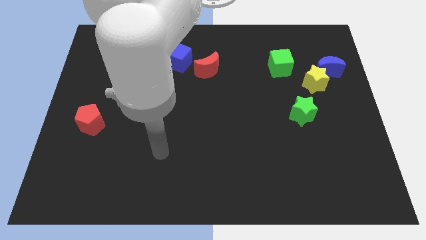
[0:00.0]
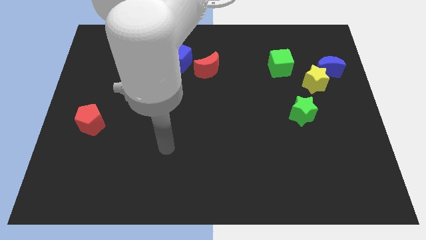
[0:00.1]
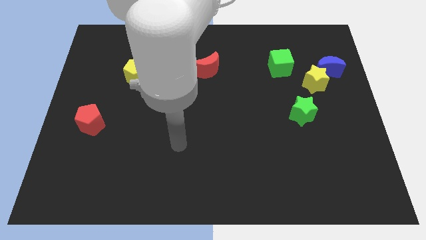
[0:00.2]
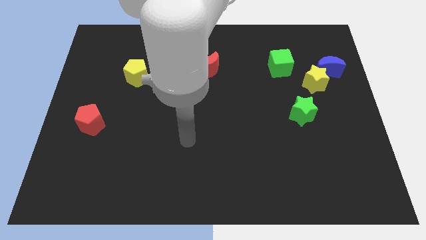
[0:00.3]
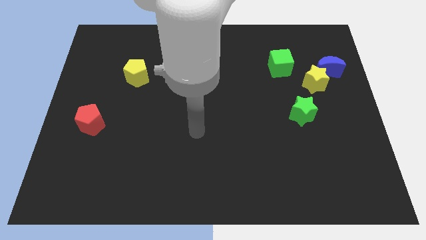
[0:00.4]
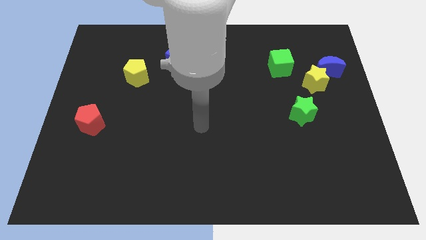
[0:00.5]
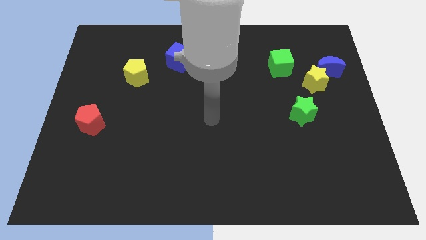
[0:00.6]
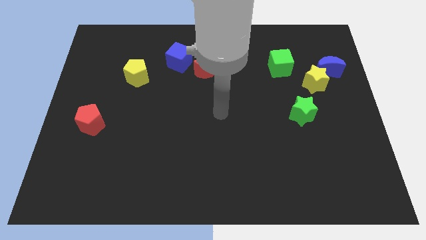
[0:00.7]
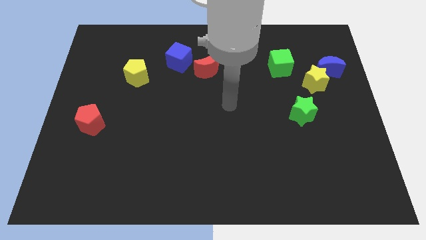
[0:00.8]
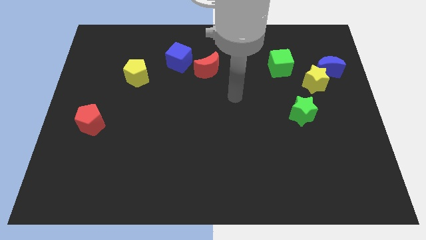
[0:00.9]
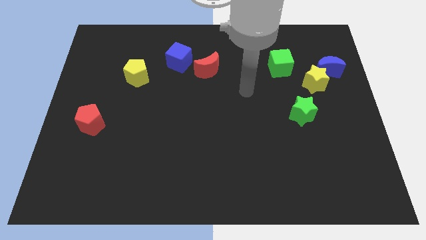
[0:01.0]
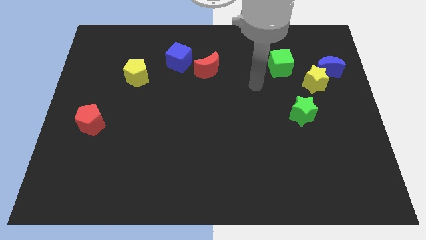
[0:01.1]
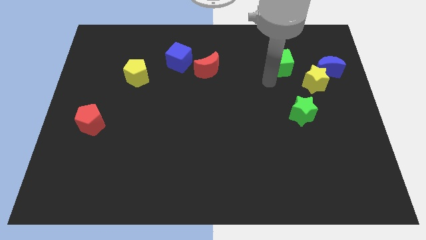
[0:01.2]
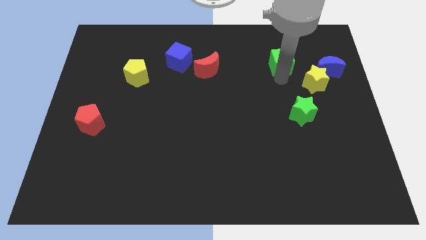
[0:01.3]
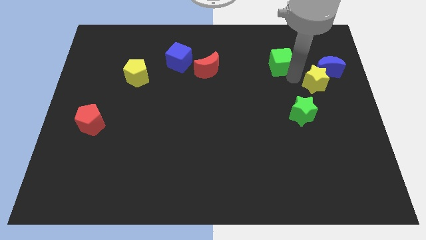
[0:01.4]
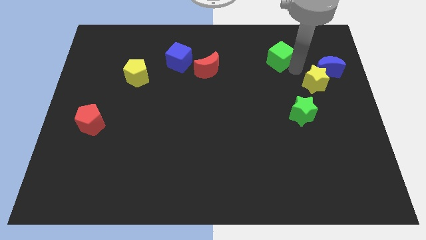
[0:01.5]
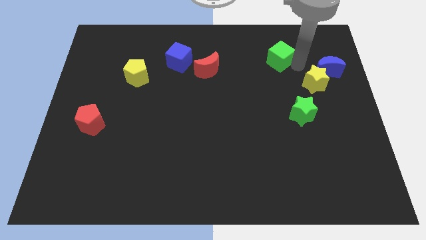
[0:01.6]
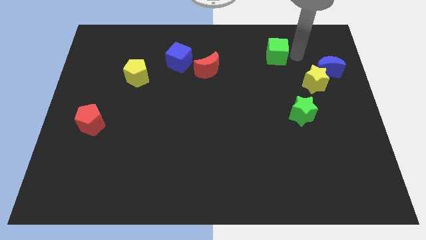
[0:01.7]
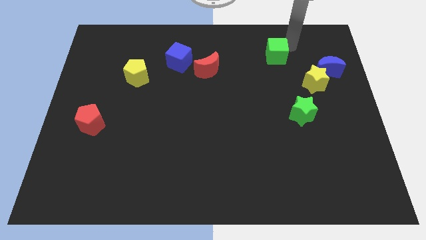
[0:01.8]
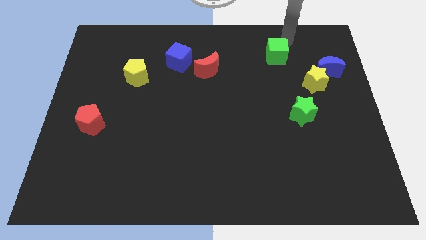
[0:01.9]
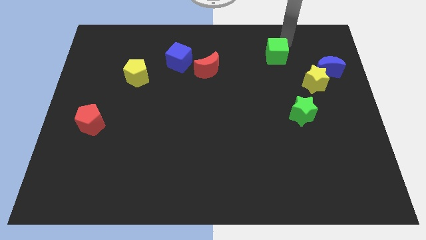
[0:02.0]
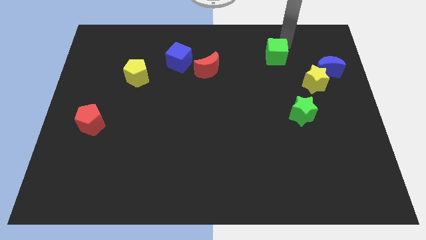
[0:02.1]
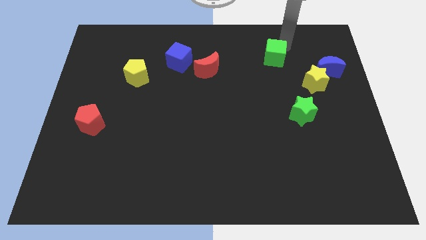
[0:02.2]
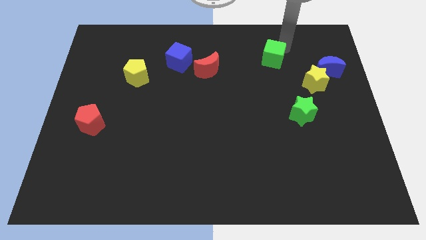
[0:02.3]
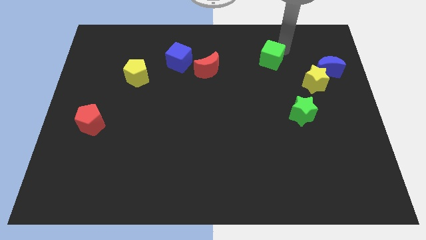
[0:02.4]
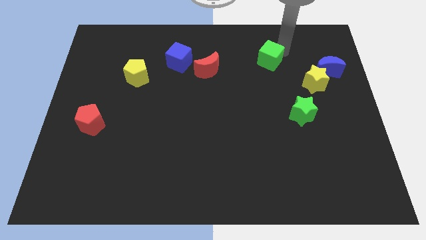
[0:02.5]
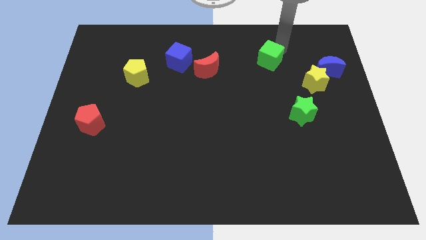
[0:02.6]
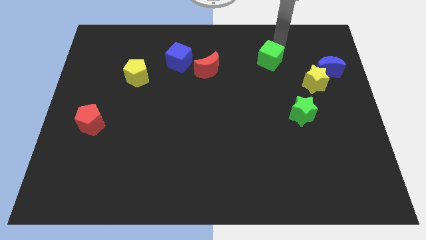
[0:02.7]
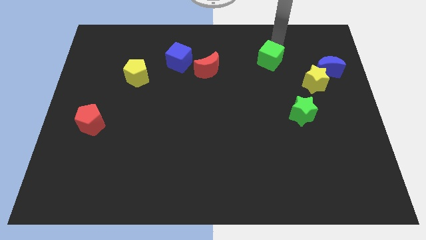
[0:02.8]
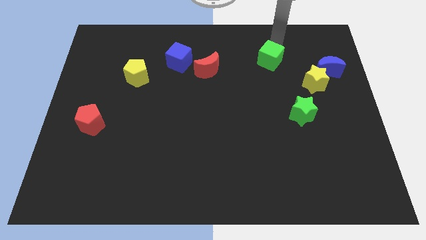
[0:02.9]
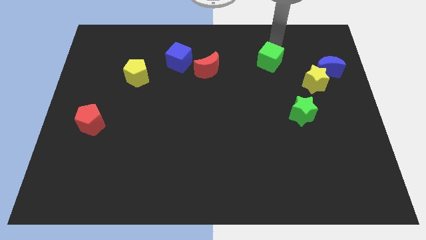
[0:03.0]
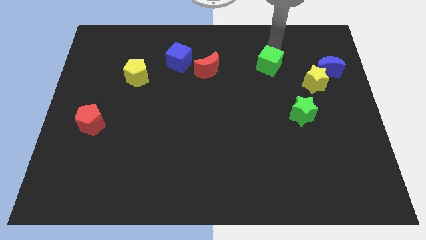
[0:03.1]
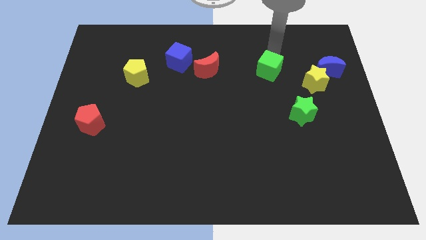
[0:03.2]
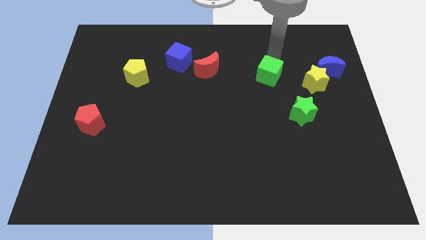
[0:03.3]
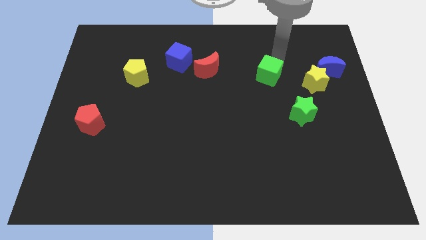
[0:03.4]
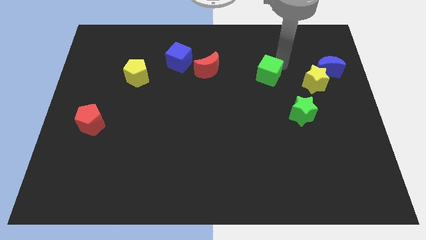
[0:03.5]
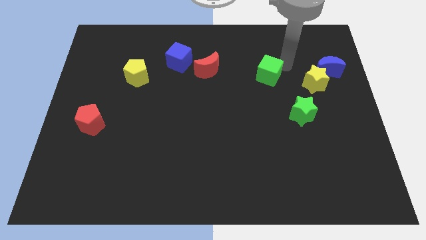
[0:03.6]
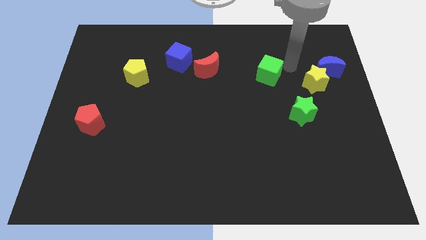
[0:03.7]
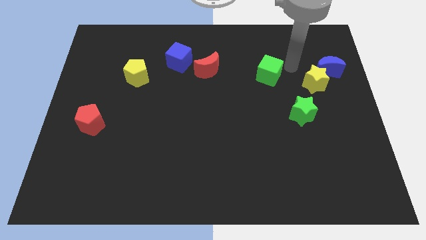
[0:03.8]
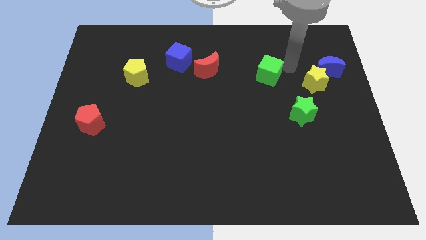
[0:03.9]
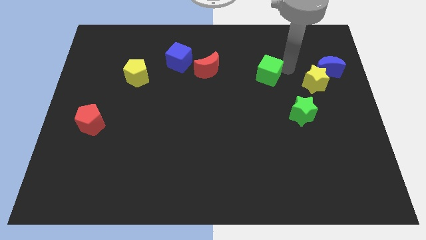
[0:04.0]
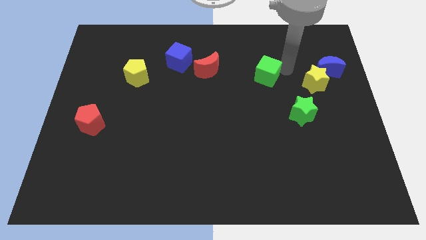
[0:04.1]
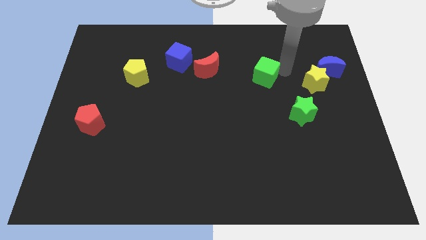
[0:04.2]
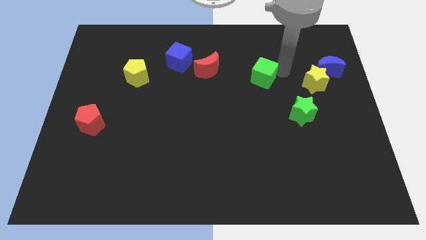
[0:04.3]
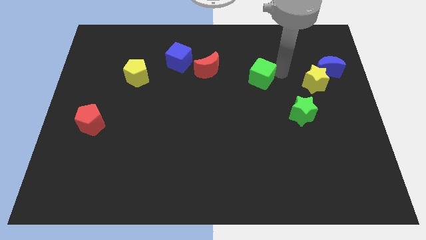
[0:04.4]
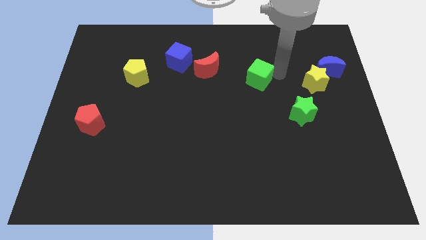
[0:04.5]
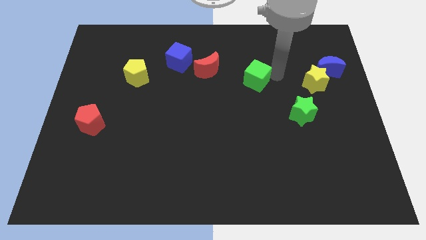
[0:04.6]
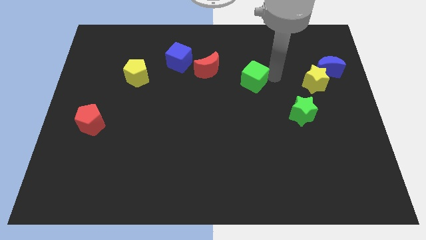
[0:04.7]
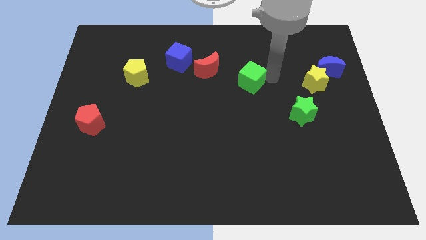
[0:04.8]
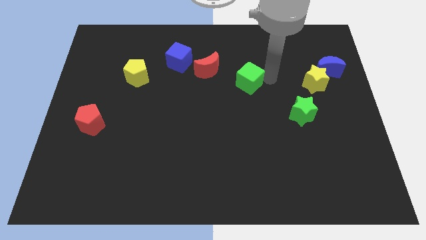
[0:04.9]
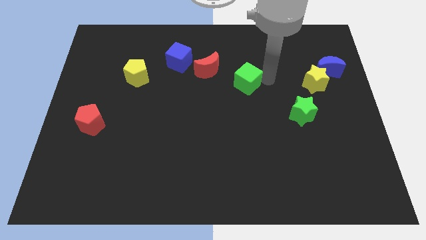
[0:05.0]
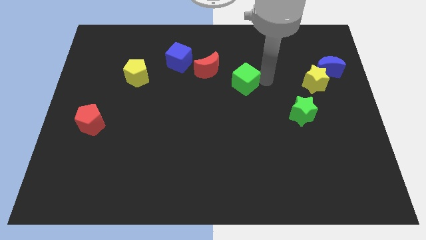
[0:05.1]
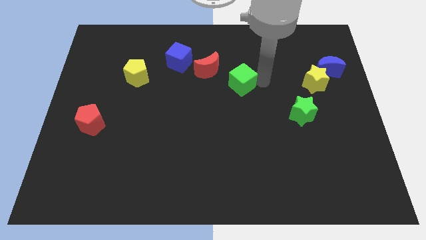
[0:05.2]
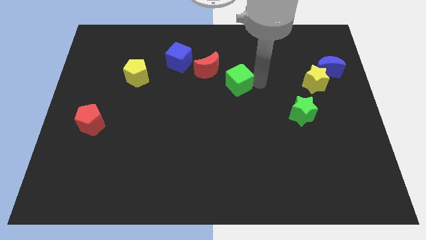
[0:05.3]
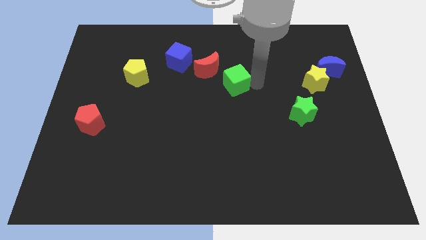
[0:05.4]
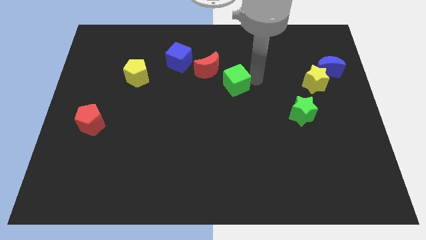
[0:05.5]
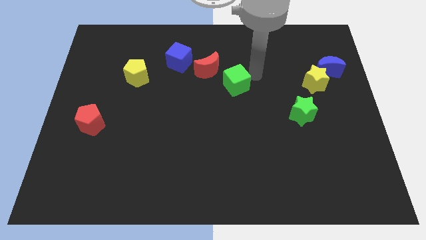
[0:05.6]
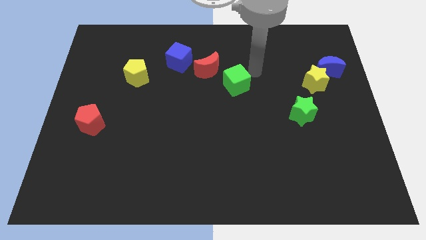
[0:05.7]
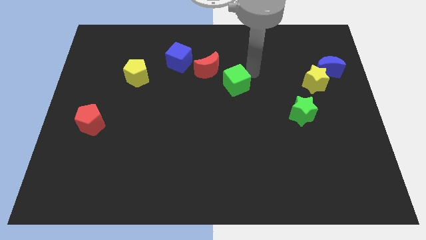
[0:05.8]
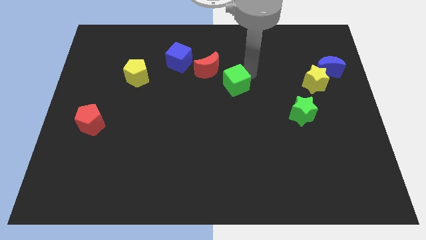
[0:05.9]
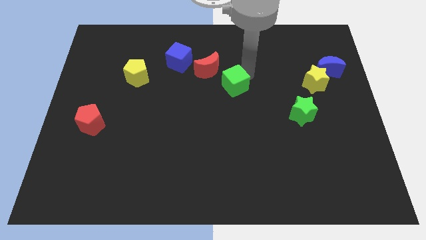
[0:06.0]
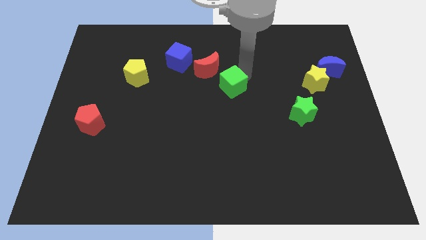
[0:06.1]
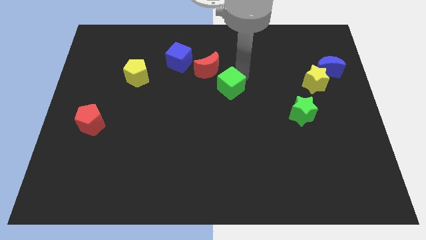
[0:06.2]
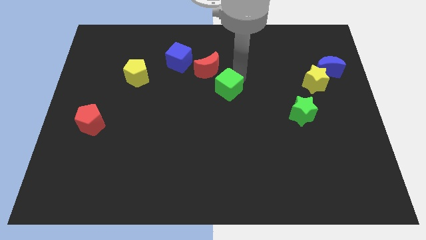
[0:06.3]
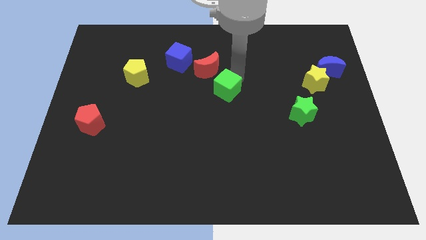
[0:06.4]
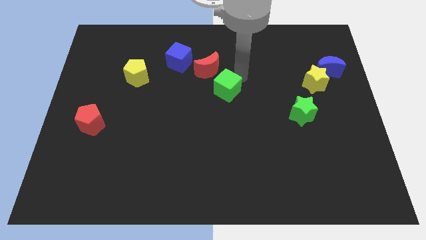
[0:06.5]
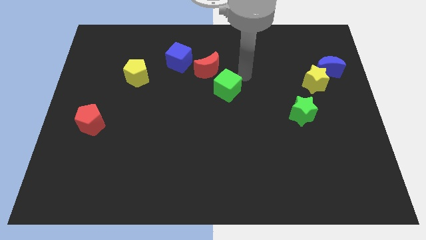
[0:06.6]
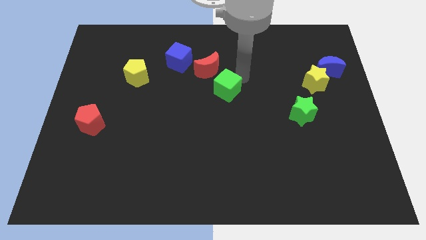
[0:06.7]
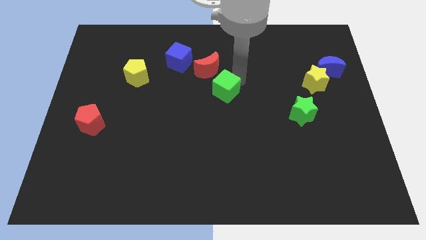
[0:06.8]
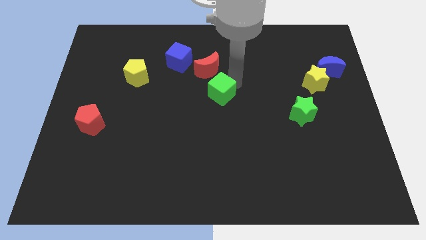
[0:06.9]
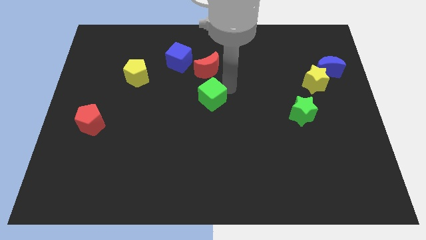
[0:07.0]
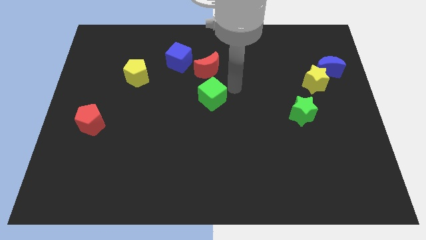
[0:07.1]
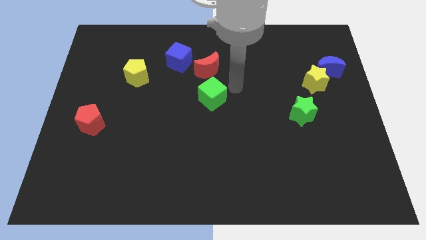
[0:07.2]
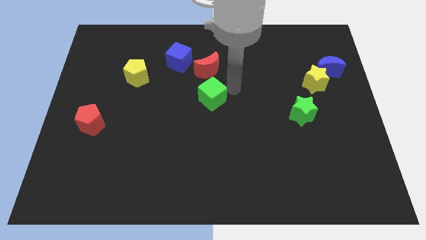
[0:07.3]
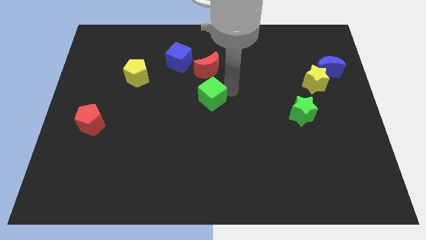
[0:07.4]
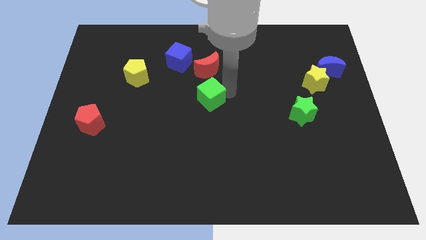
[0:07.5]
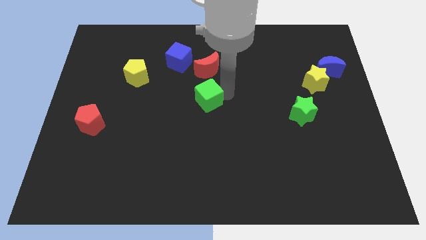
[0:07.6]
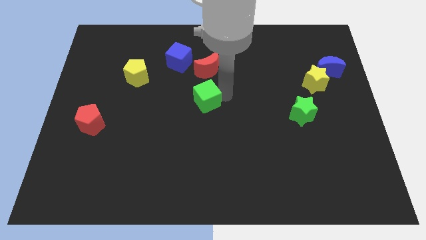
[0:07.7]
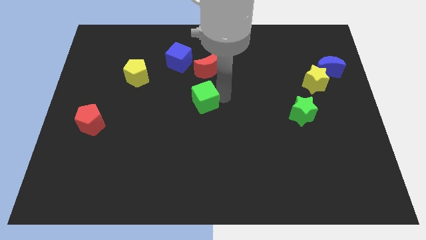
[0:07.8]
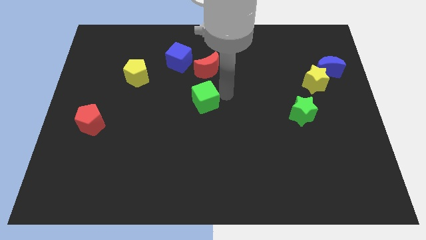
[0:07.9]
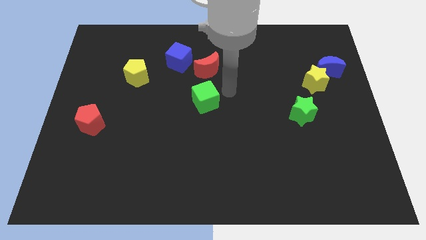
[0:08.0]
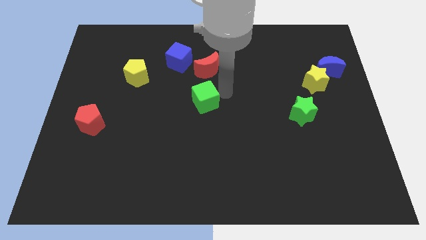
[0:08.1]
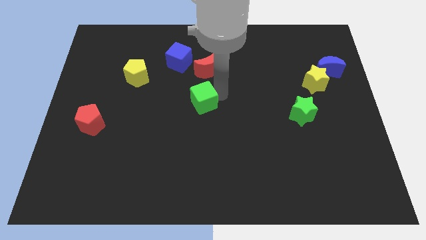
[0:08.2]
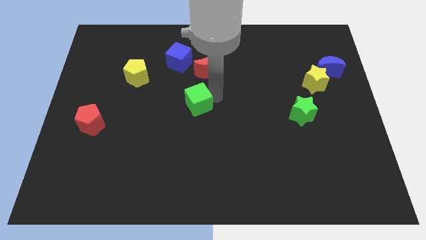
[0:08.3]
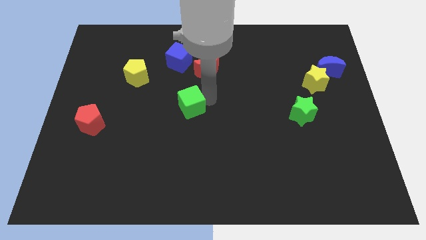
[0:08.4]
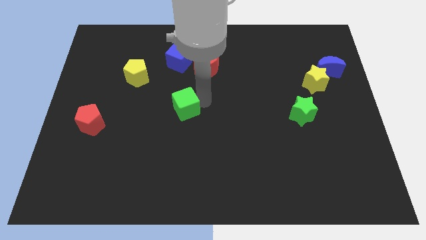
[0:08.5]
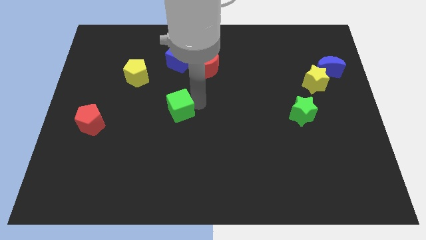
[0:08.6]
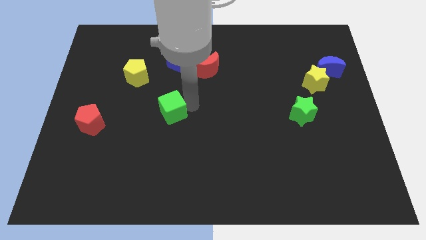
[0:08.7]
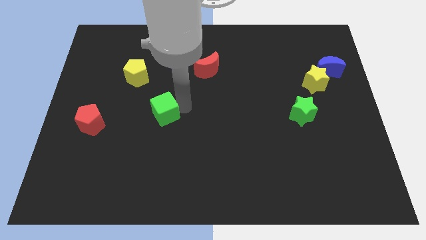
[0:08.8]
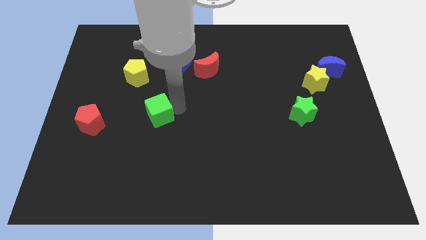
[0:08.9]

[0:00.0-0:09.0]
slide the green cube to the right side of the red pentagon
